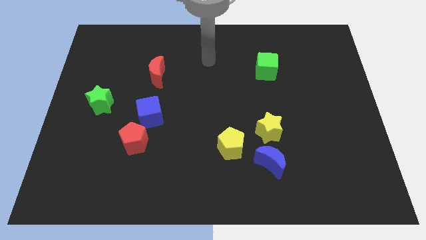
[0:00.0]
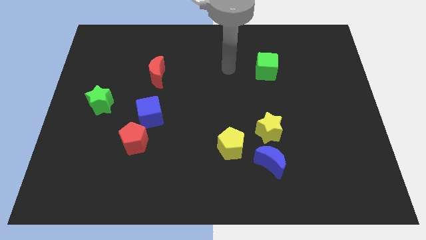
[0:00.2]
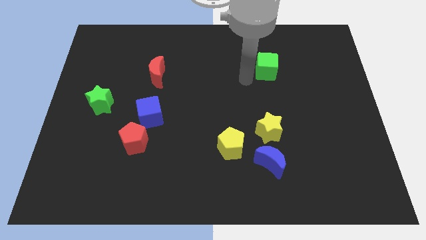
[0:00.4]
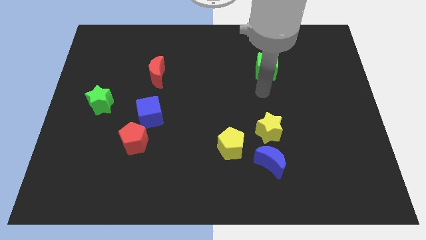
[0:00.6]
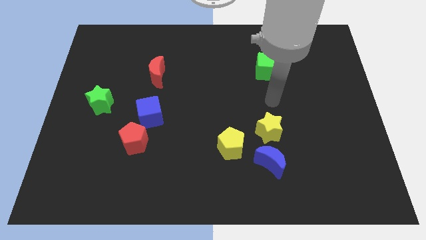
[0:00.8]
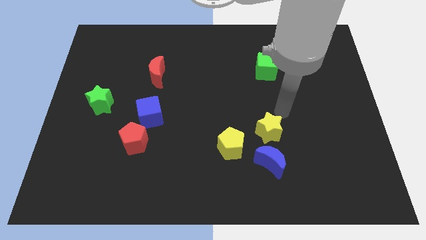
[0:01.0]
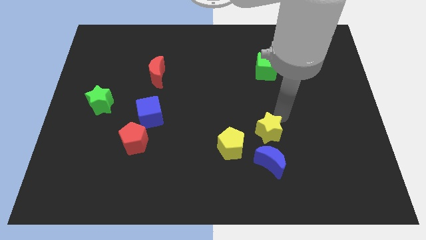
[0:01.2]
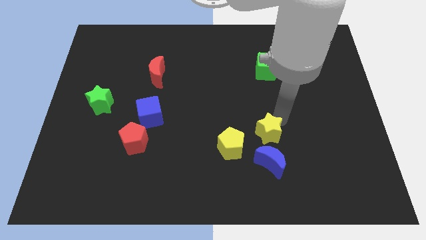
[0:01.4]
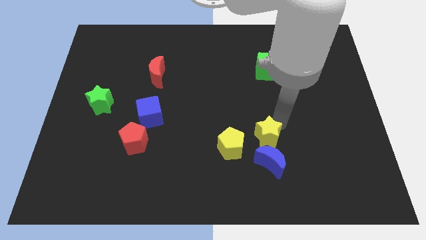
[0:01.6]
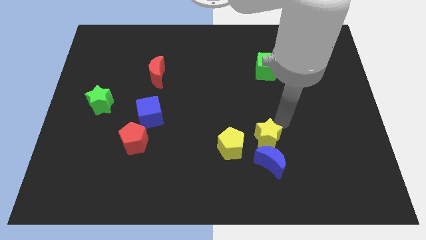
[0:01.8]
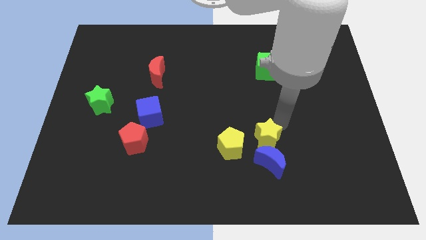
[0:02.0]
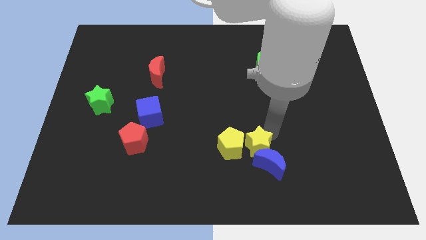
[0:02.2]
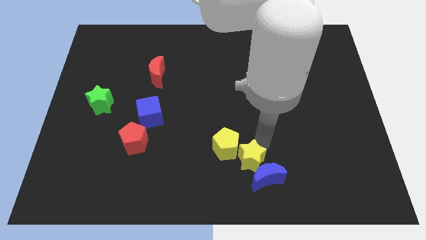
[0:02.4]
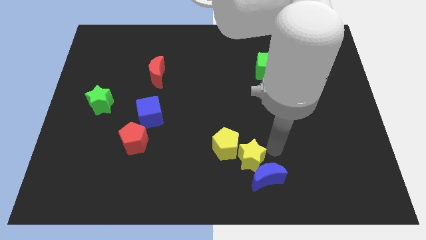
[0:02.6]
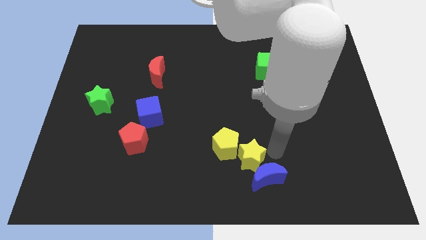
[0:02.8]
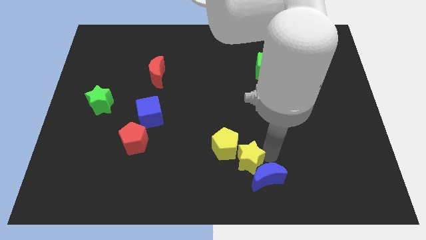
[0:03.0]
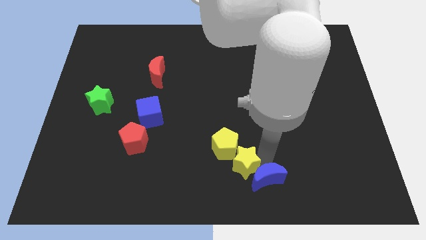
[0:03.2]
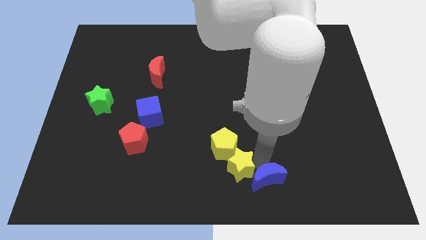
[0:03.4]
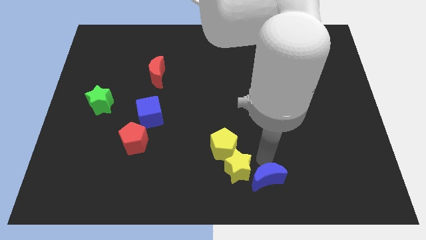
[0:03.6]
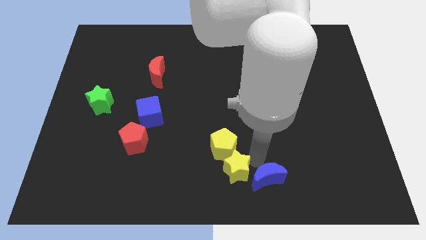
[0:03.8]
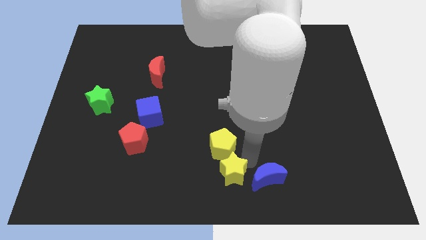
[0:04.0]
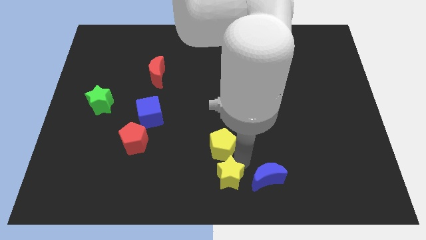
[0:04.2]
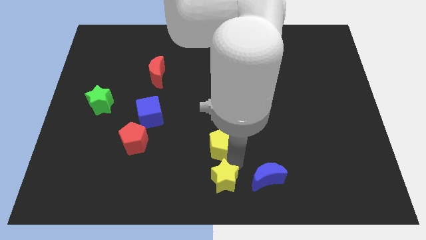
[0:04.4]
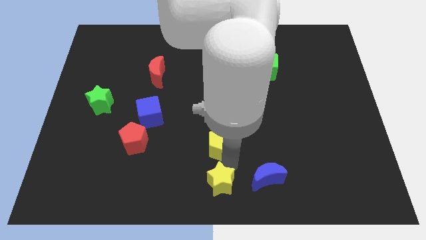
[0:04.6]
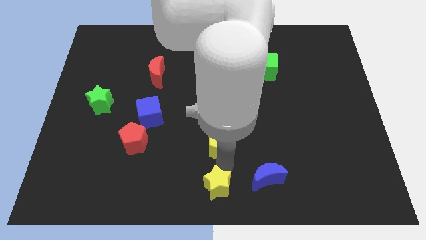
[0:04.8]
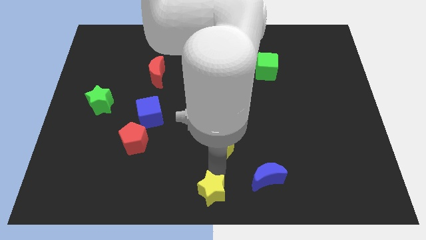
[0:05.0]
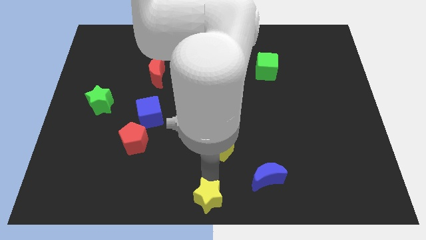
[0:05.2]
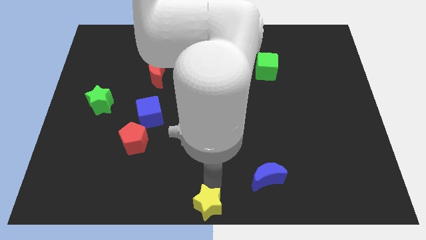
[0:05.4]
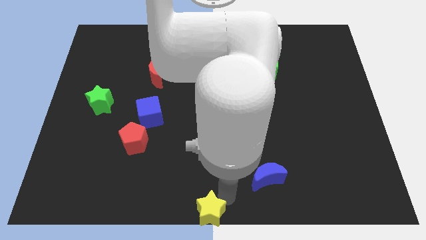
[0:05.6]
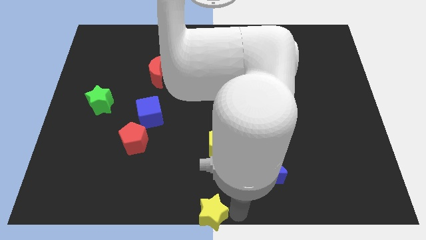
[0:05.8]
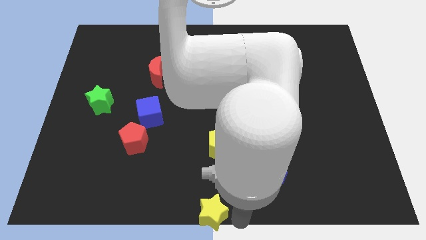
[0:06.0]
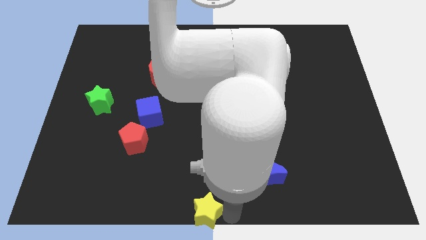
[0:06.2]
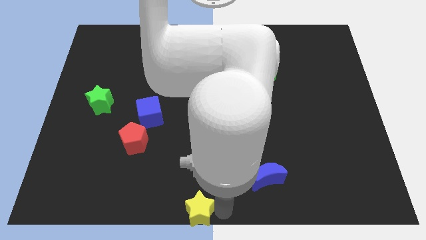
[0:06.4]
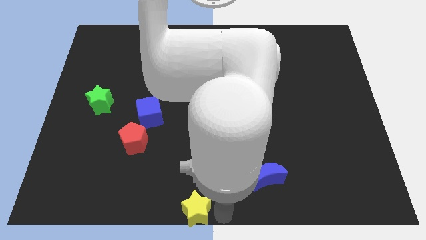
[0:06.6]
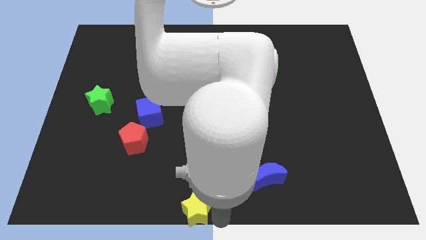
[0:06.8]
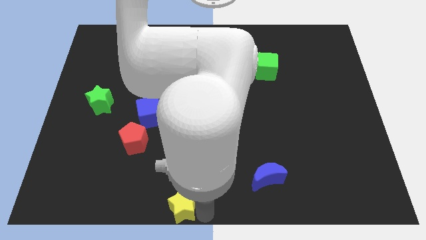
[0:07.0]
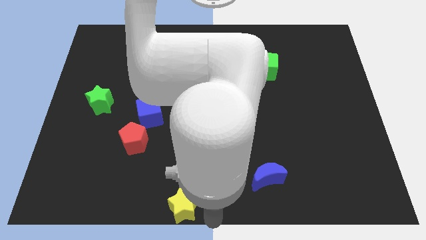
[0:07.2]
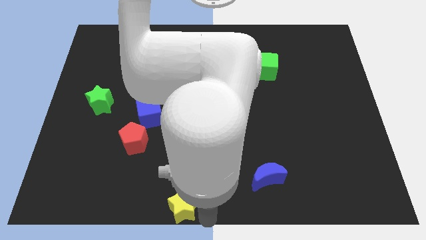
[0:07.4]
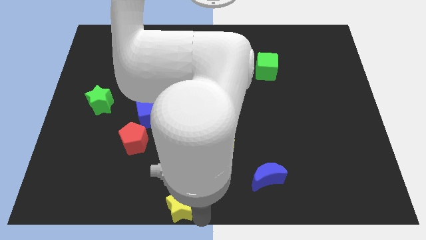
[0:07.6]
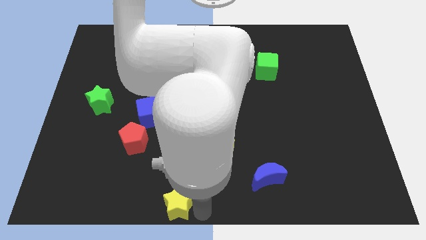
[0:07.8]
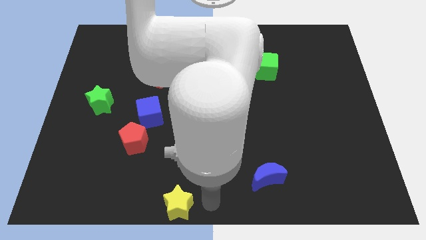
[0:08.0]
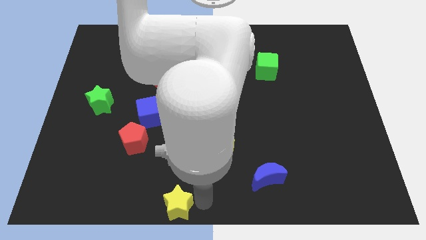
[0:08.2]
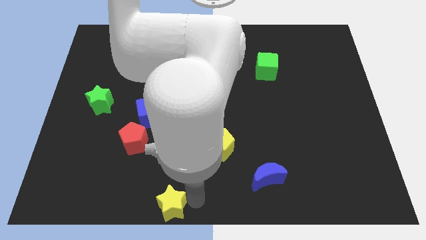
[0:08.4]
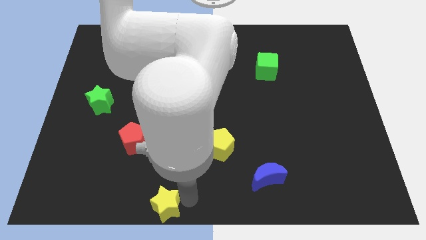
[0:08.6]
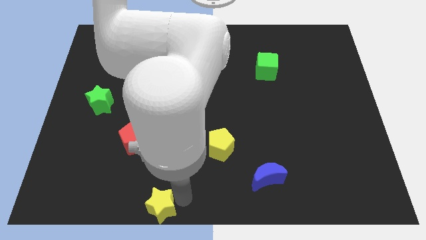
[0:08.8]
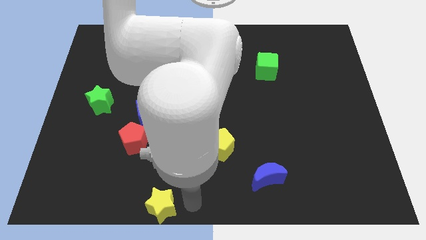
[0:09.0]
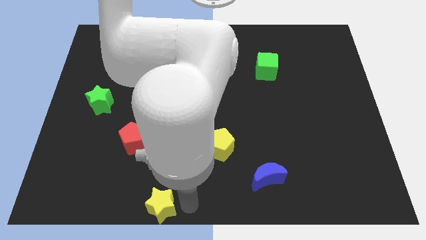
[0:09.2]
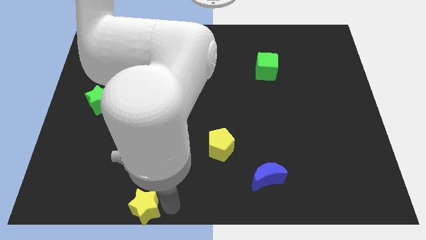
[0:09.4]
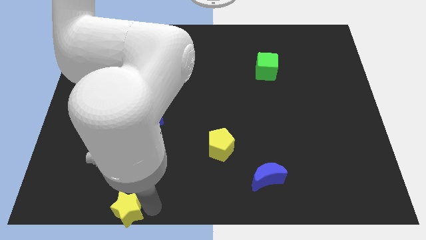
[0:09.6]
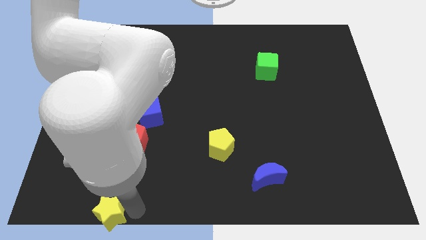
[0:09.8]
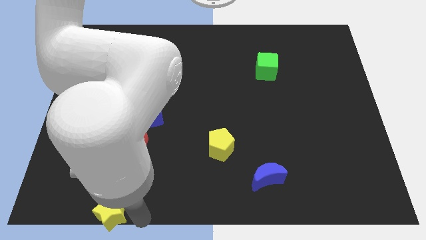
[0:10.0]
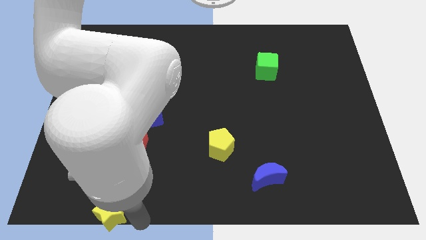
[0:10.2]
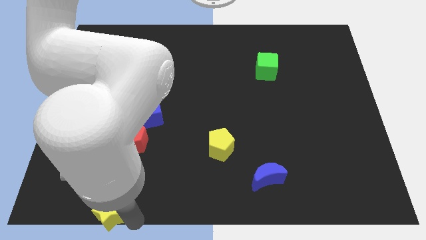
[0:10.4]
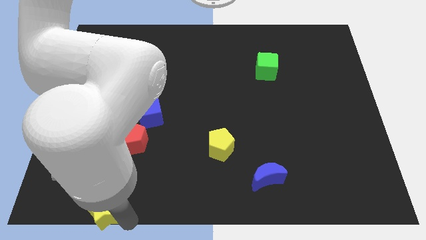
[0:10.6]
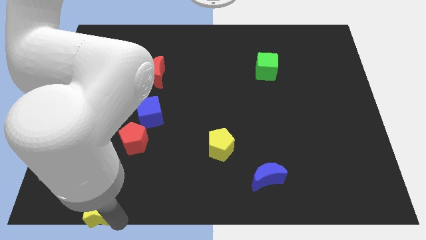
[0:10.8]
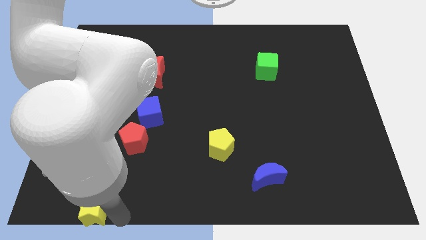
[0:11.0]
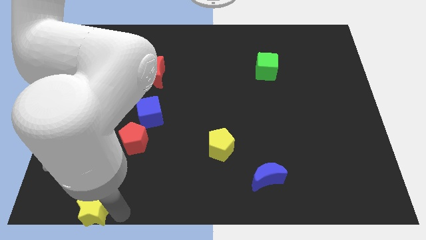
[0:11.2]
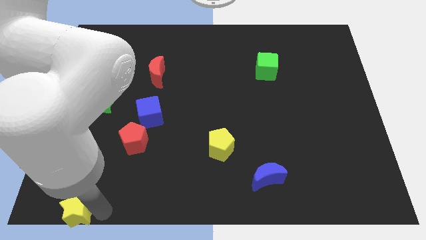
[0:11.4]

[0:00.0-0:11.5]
push the yellow star to the lower left corner

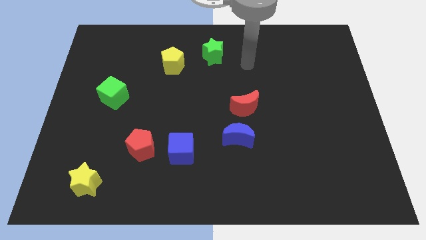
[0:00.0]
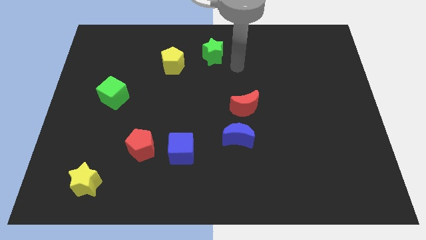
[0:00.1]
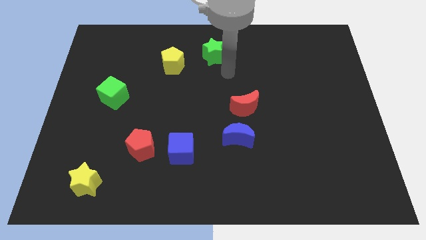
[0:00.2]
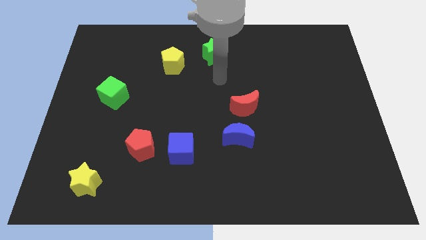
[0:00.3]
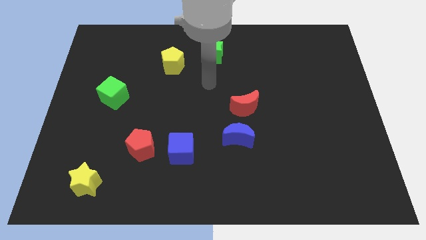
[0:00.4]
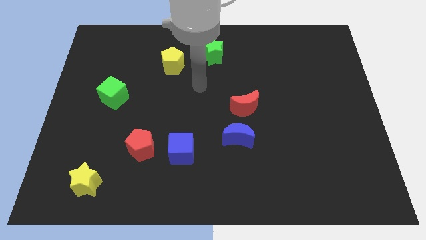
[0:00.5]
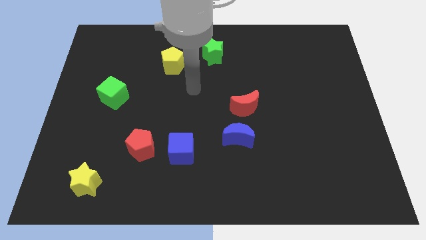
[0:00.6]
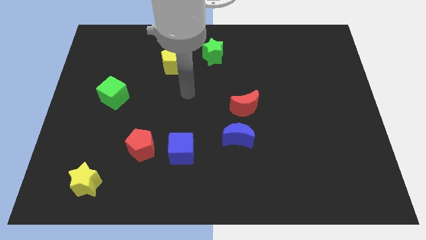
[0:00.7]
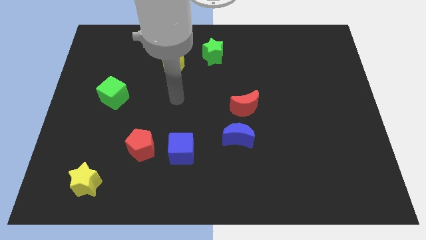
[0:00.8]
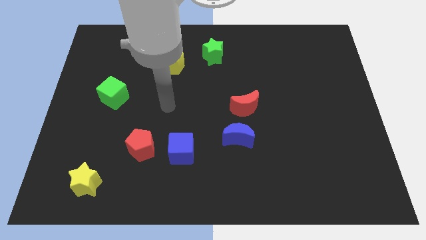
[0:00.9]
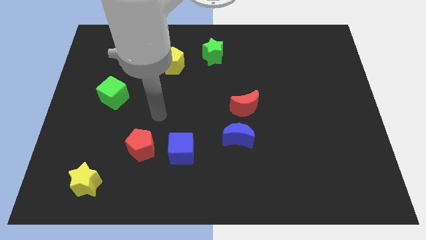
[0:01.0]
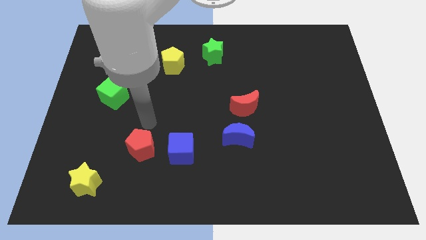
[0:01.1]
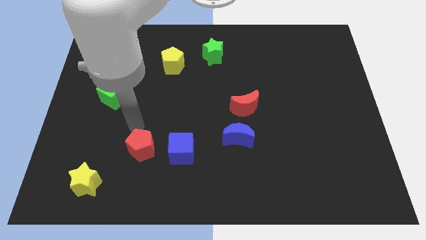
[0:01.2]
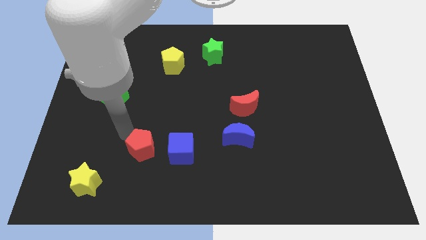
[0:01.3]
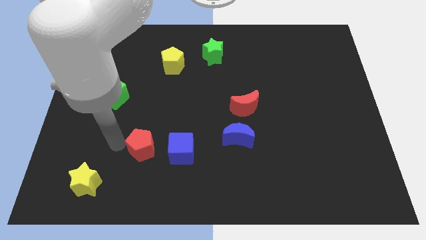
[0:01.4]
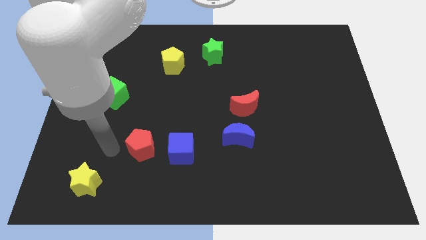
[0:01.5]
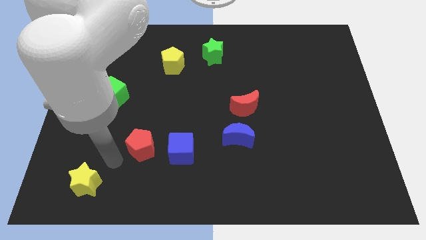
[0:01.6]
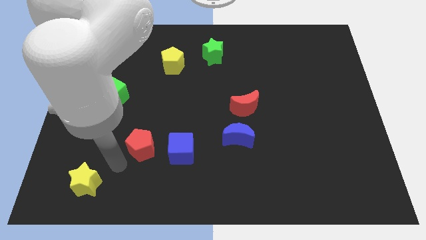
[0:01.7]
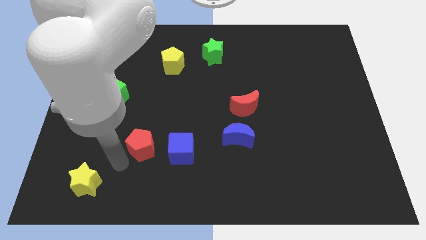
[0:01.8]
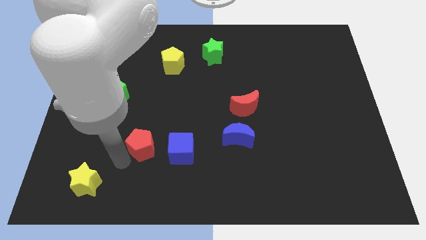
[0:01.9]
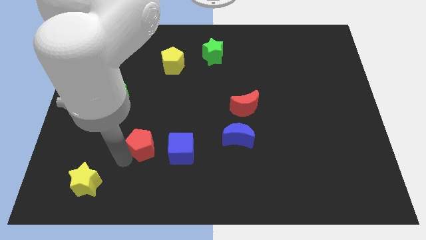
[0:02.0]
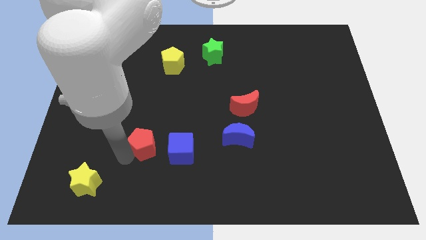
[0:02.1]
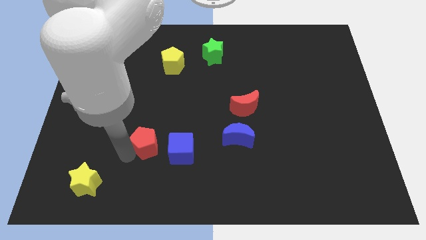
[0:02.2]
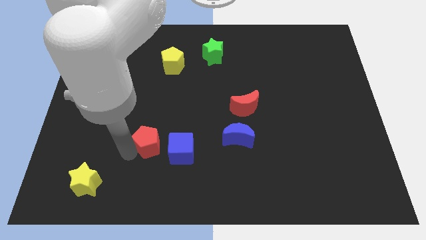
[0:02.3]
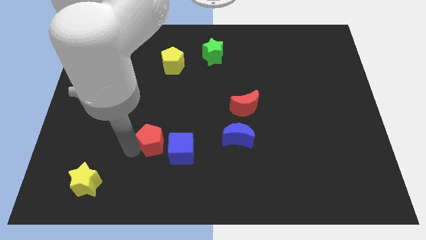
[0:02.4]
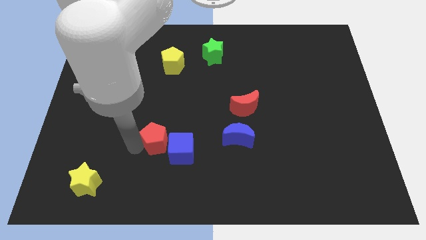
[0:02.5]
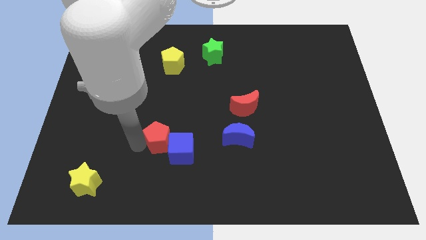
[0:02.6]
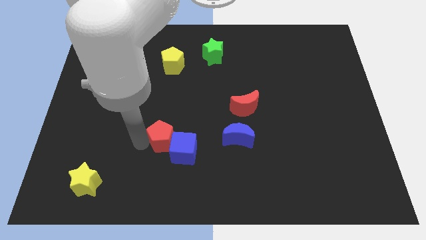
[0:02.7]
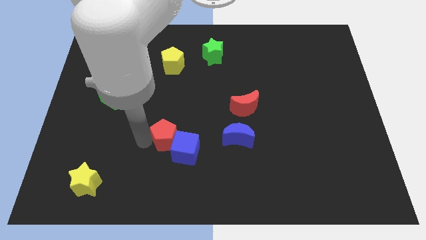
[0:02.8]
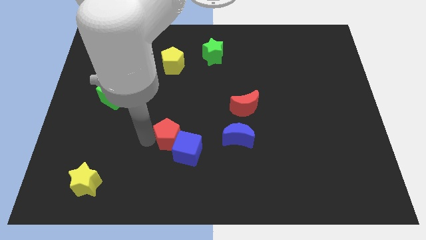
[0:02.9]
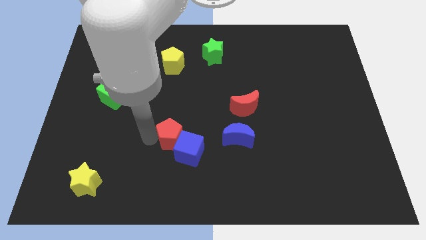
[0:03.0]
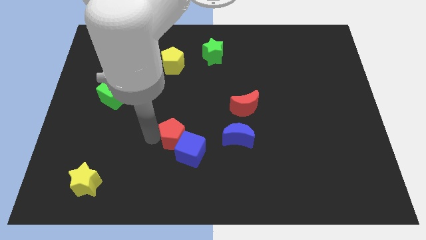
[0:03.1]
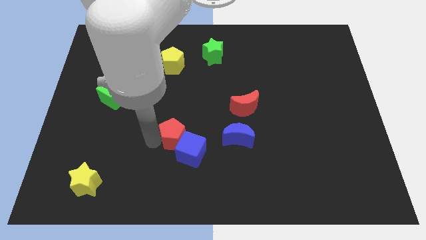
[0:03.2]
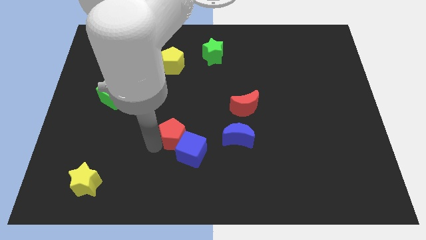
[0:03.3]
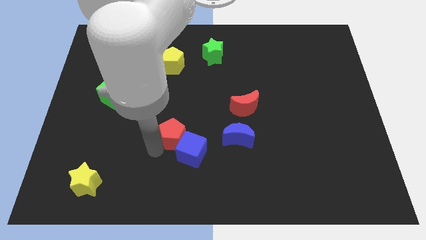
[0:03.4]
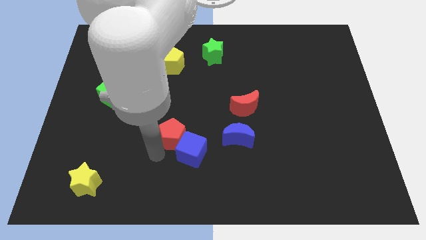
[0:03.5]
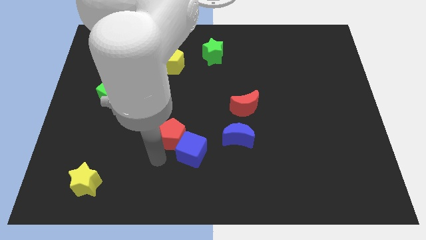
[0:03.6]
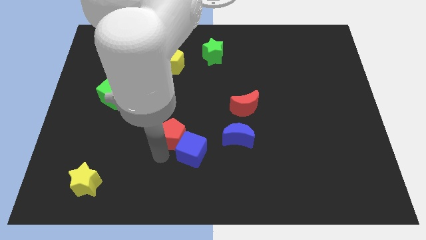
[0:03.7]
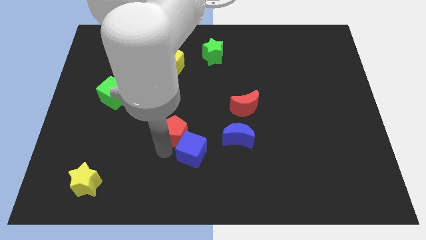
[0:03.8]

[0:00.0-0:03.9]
slide the red pentagon to the middle
